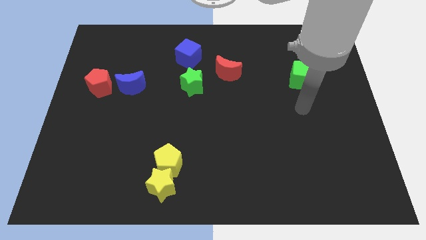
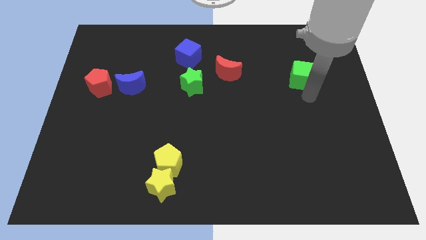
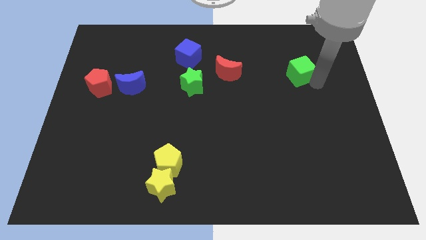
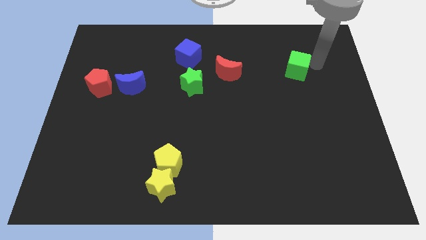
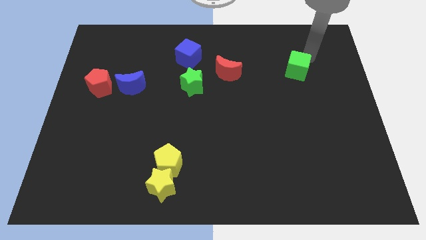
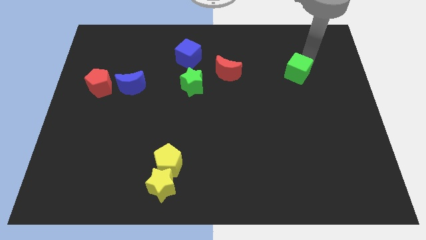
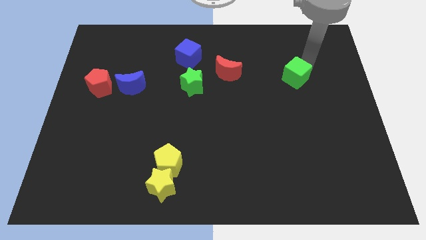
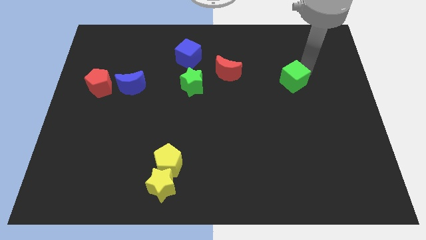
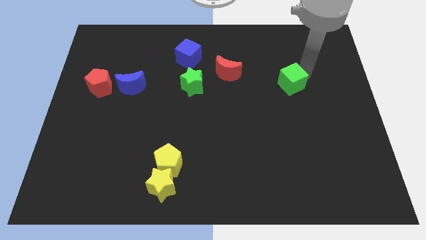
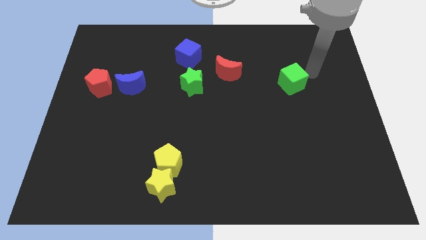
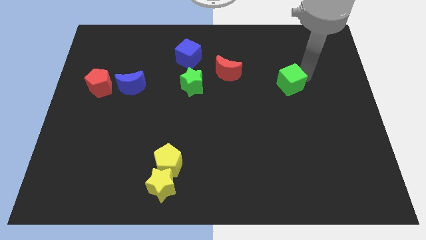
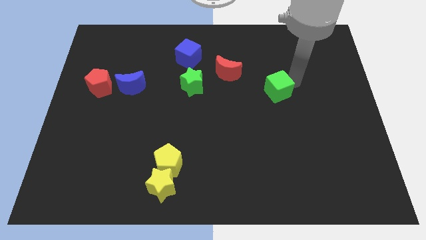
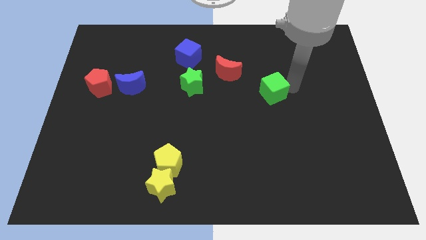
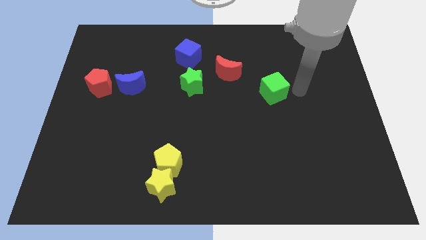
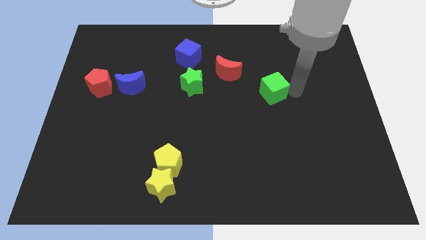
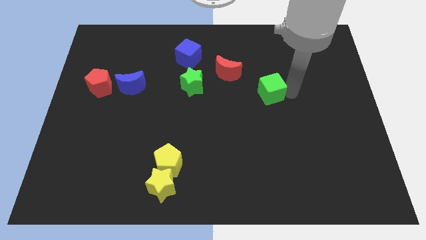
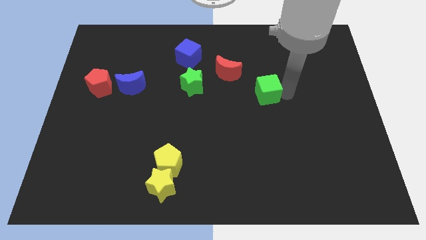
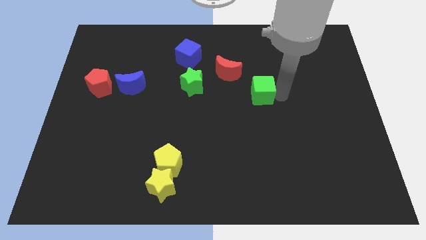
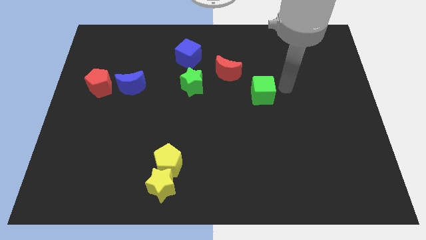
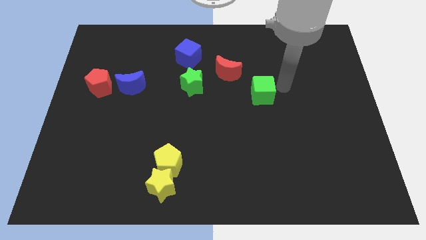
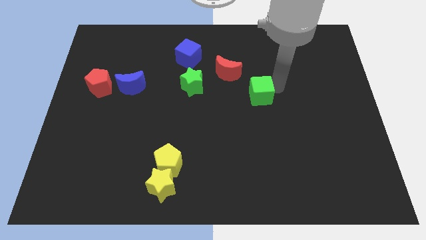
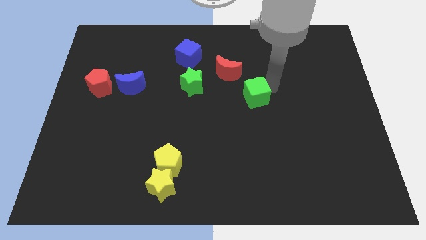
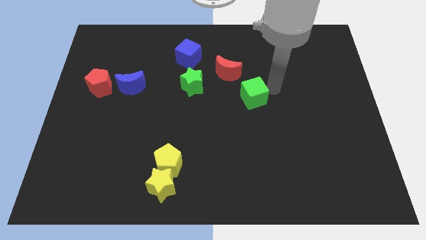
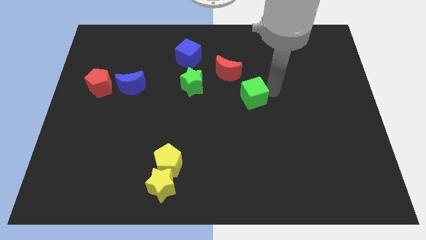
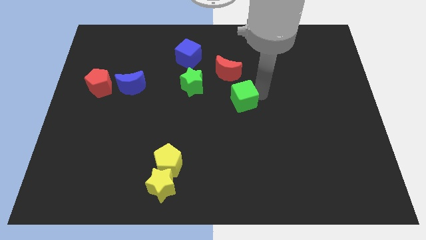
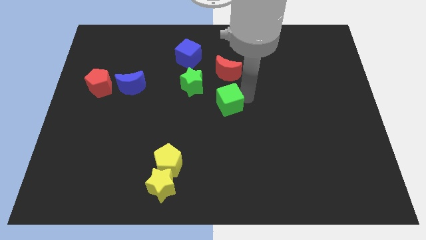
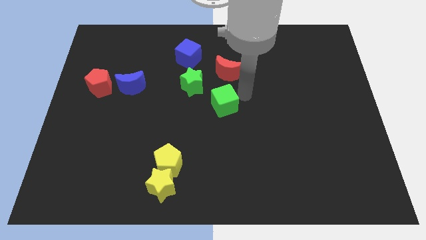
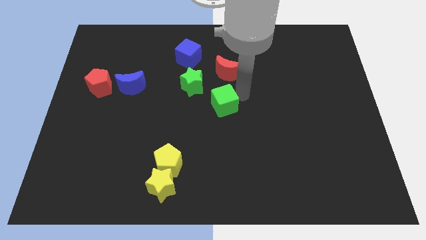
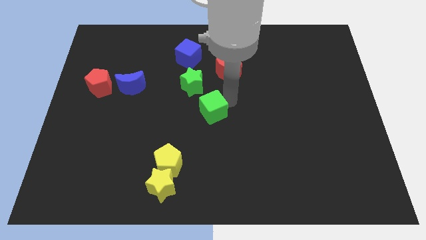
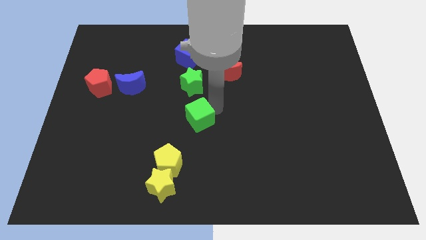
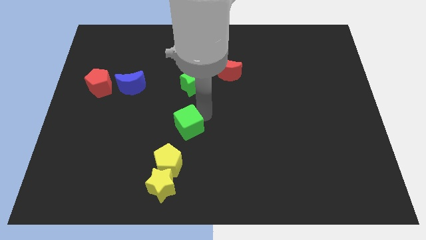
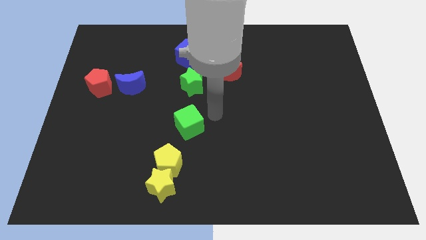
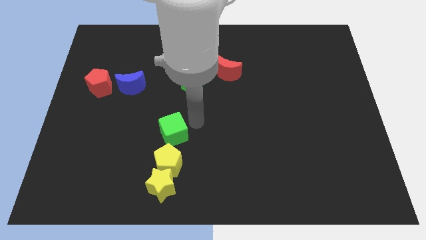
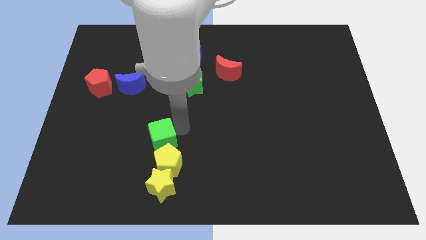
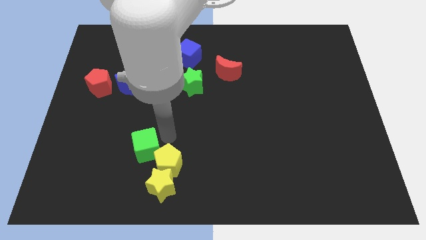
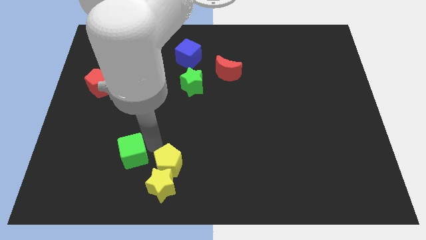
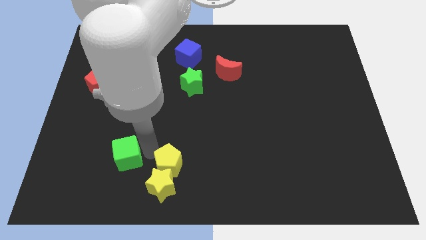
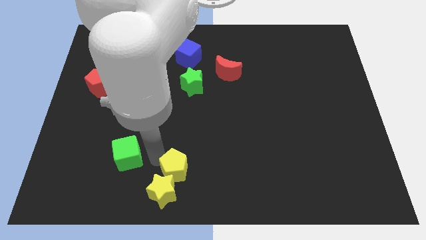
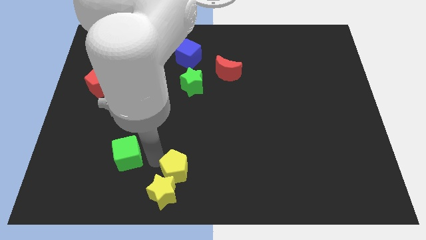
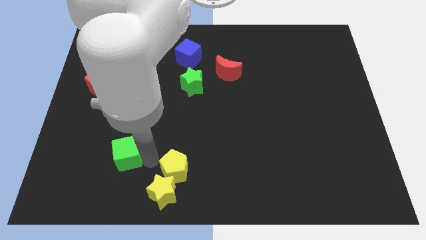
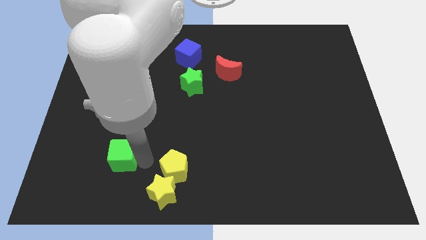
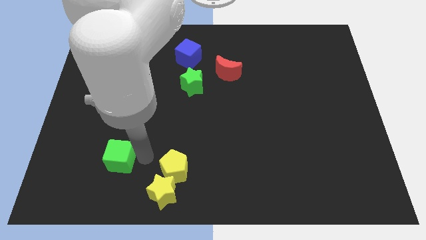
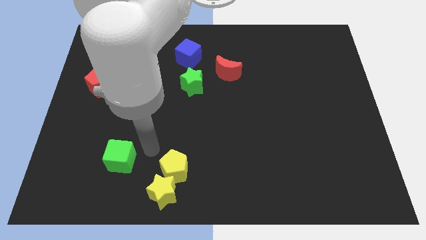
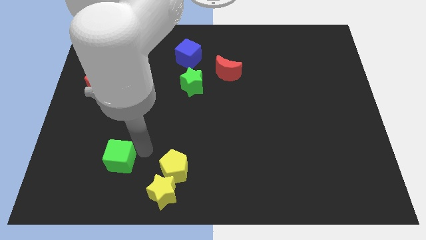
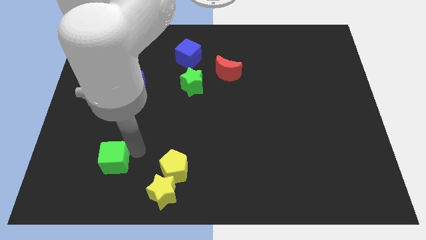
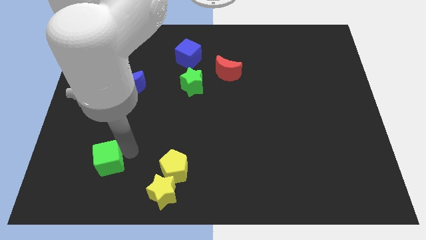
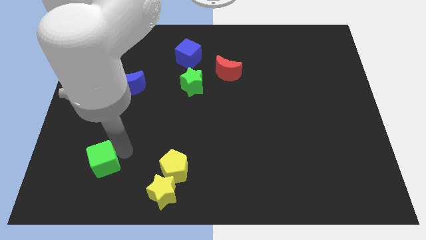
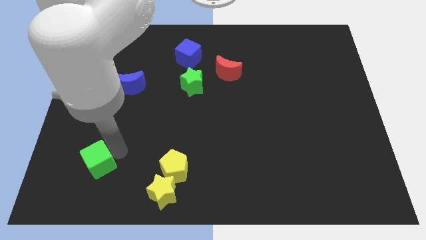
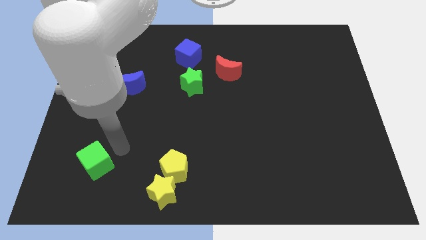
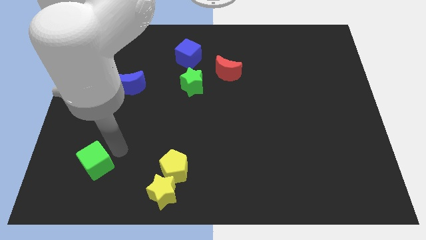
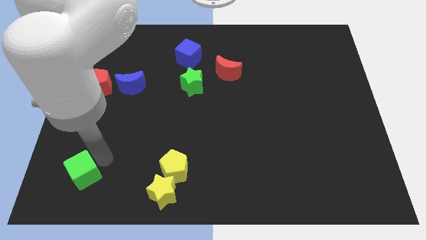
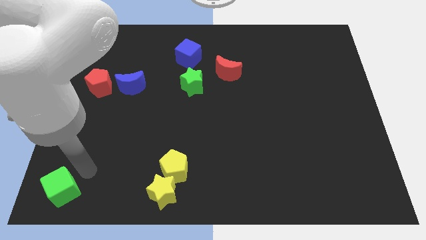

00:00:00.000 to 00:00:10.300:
put the green cube to the bottom left corner

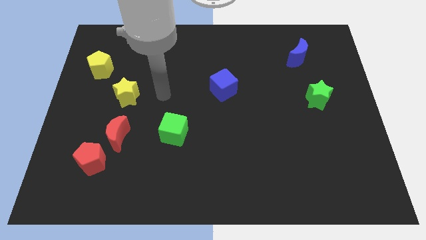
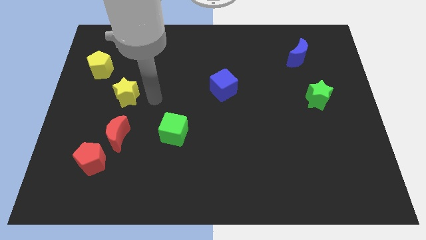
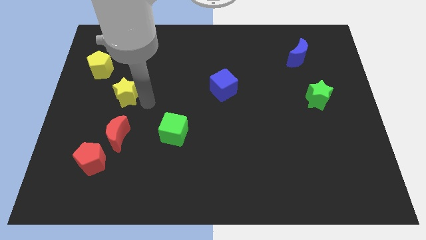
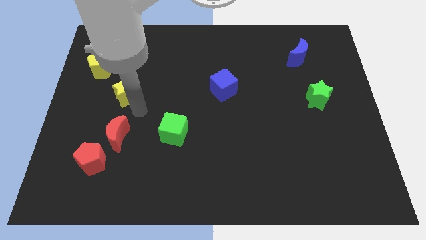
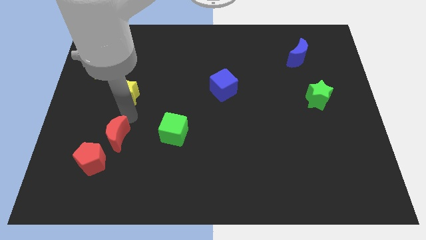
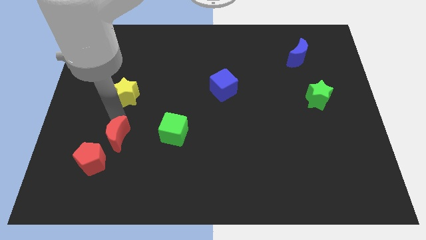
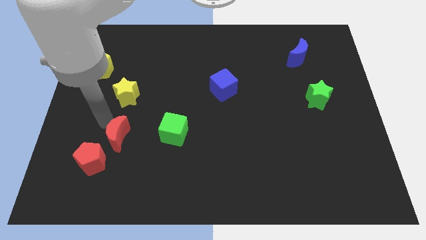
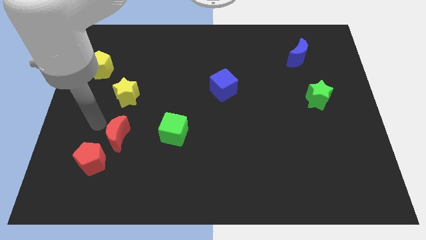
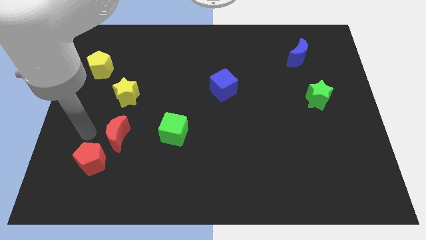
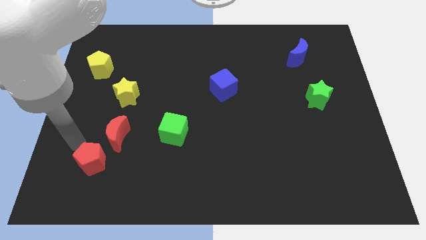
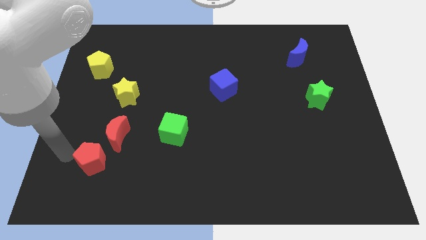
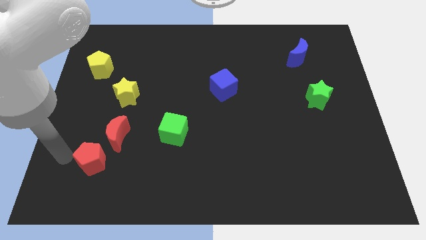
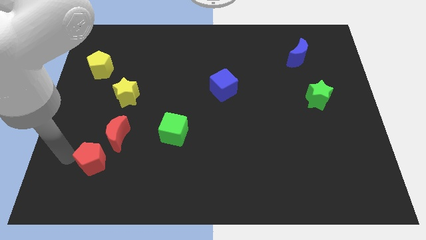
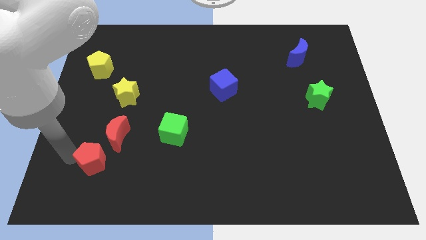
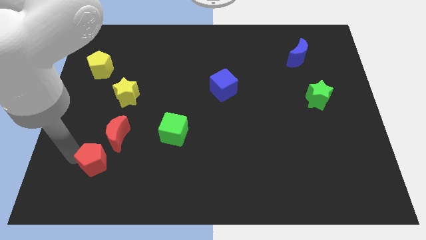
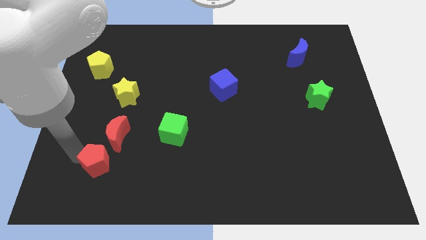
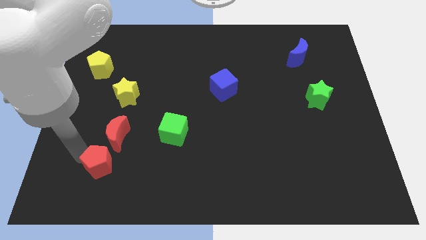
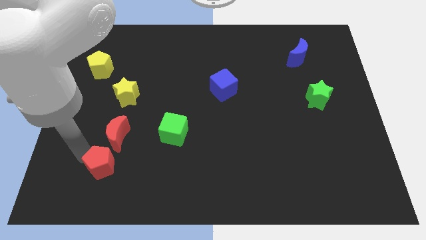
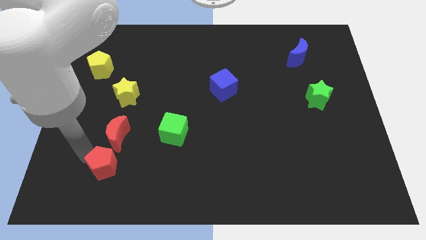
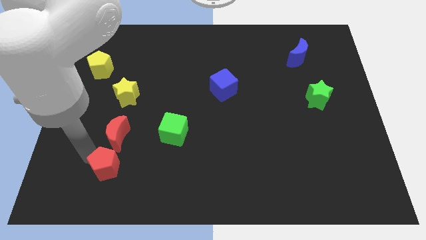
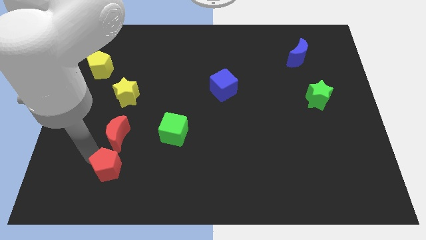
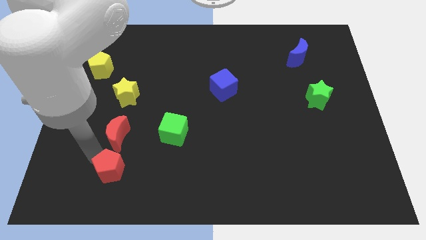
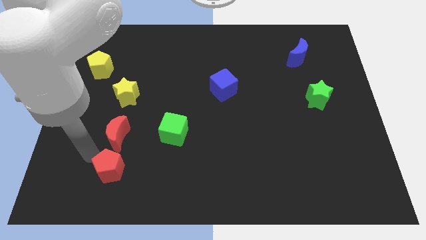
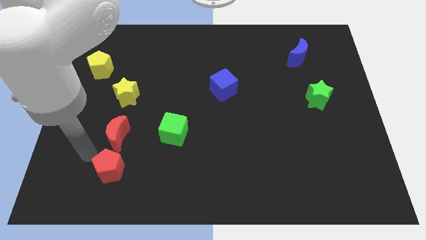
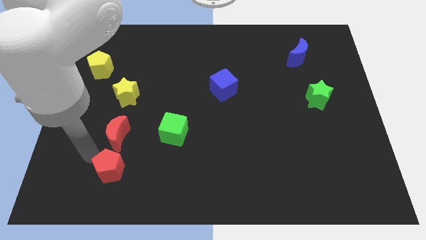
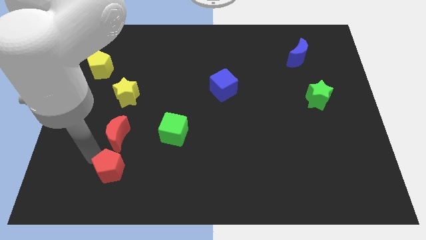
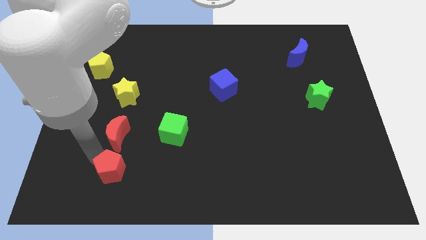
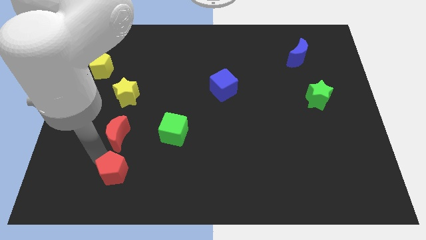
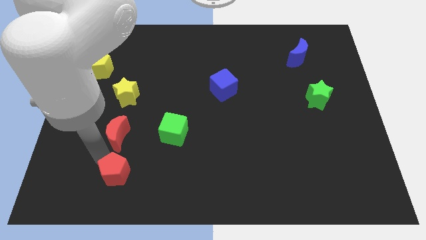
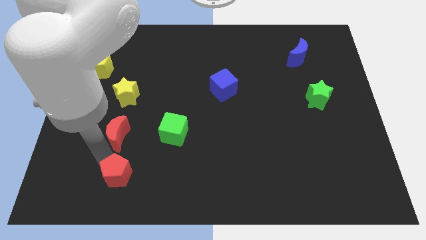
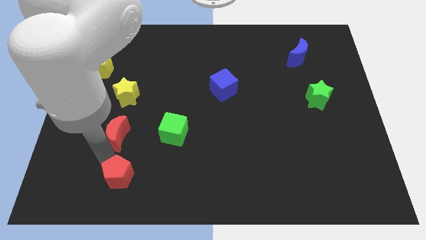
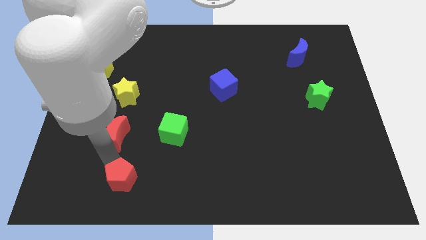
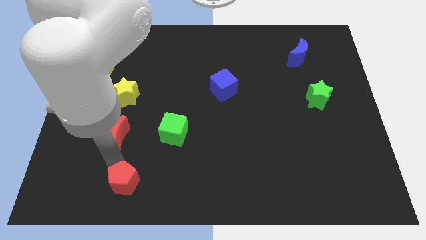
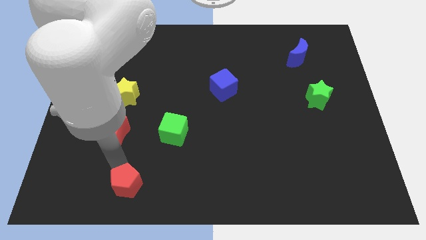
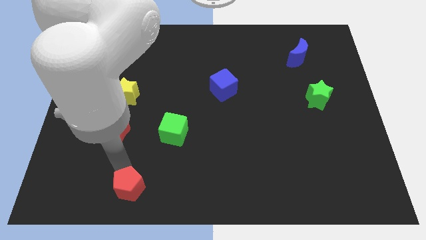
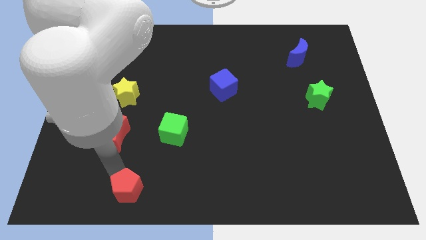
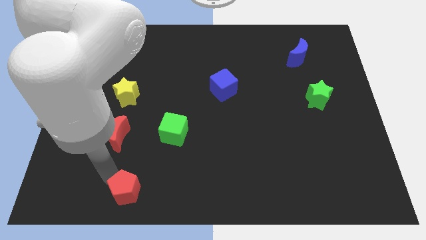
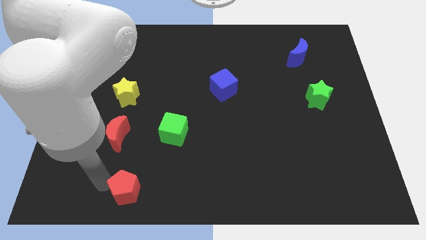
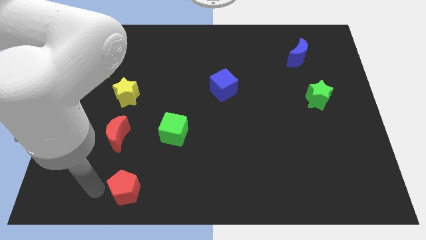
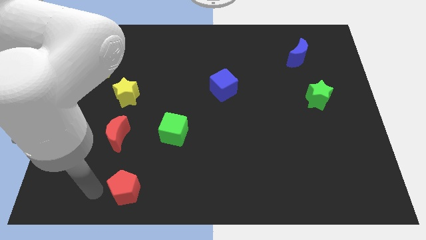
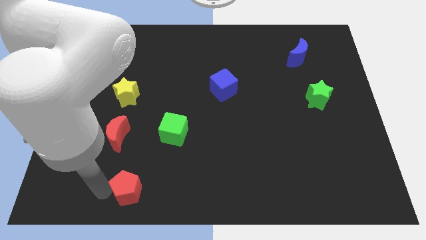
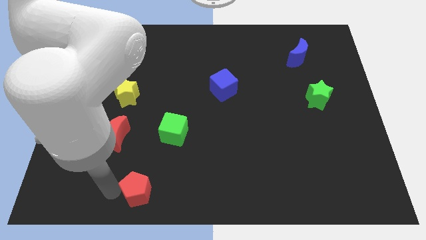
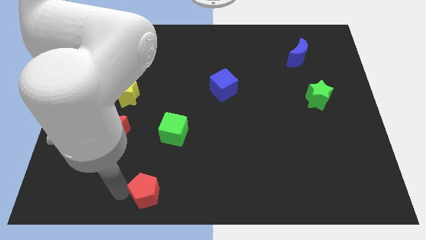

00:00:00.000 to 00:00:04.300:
move the red pentagon to the bottom
